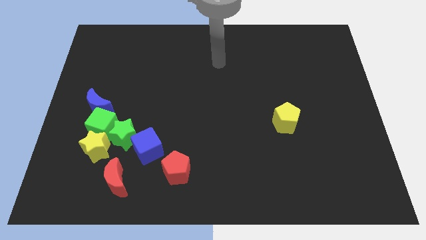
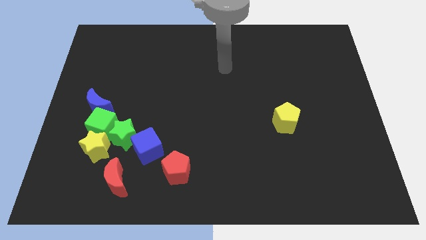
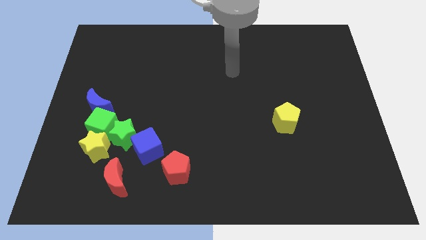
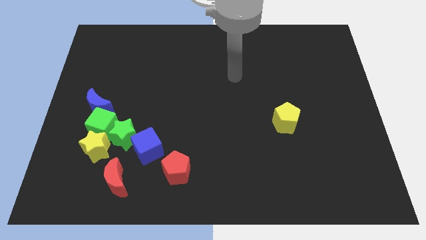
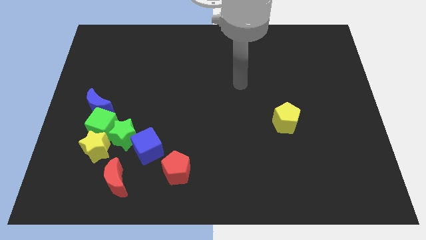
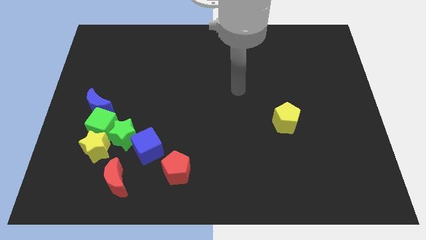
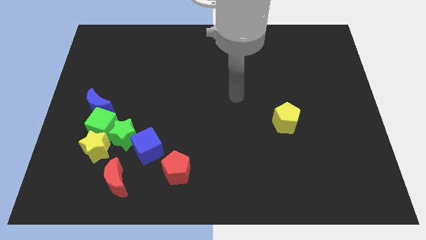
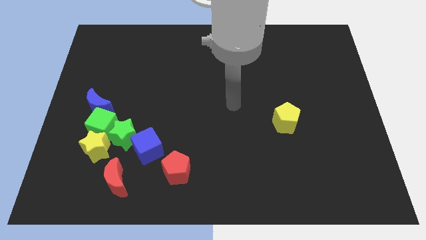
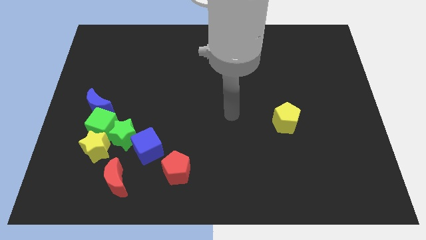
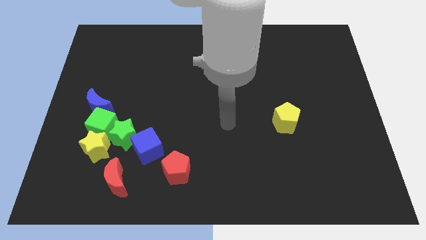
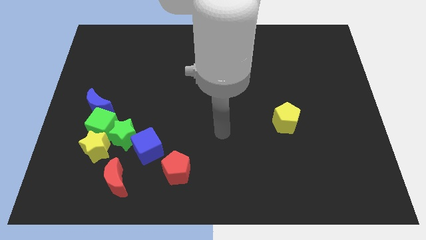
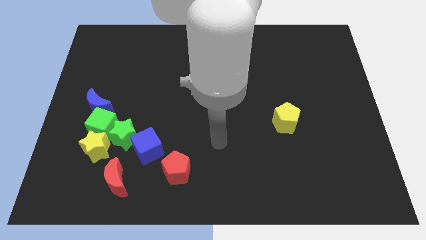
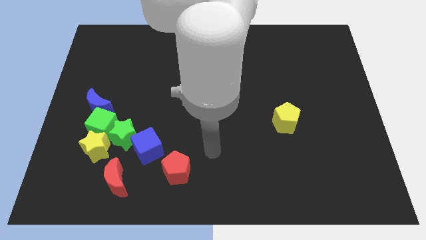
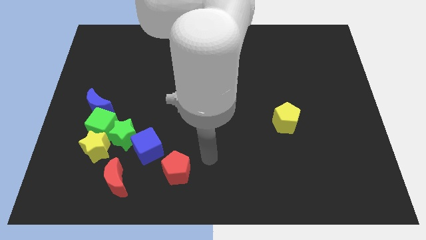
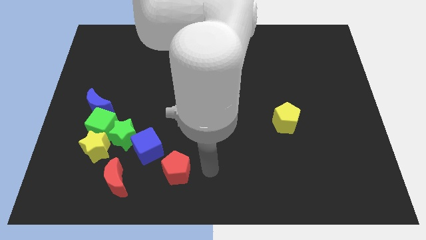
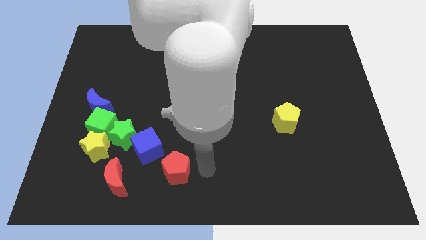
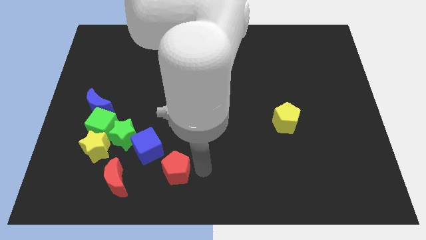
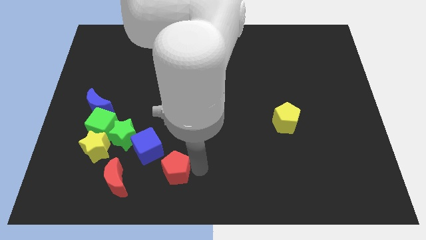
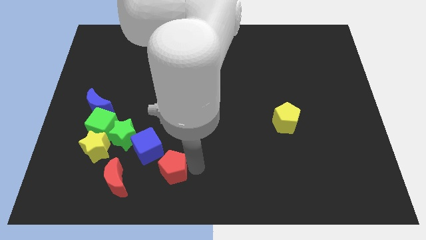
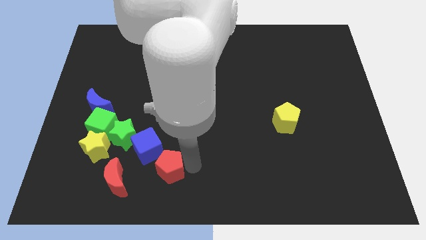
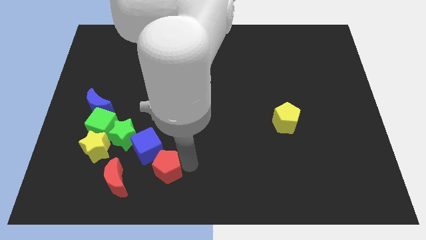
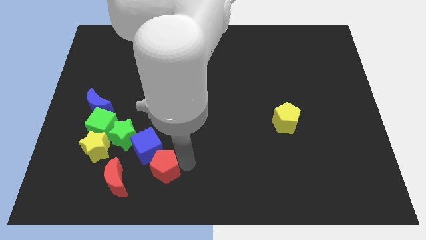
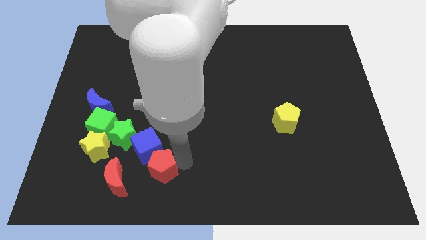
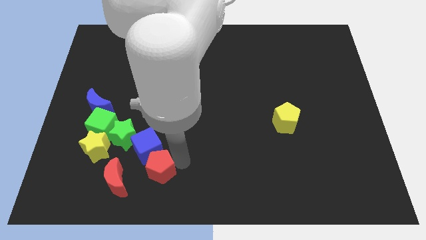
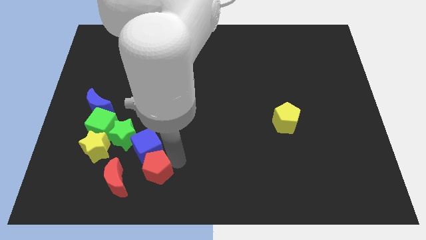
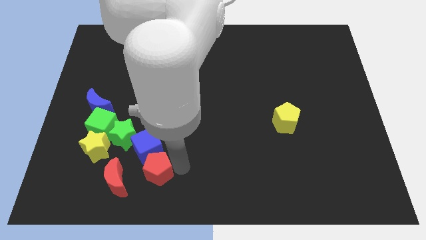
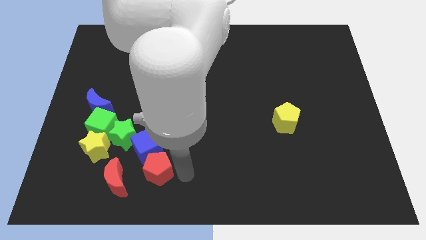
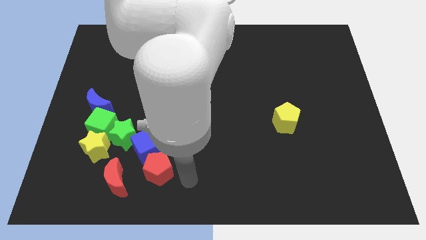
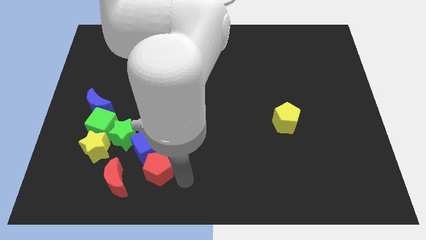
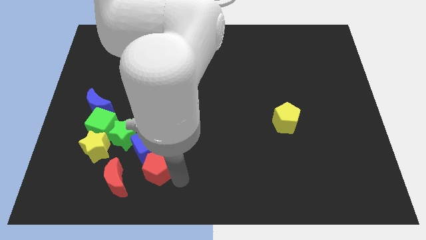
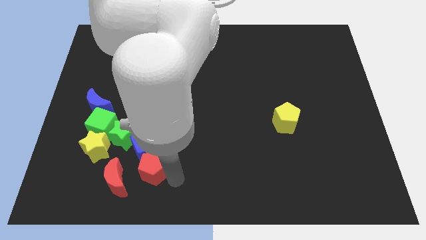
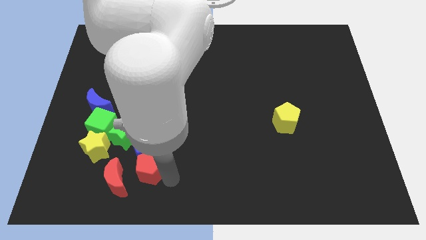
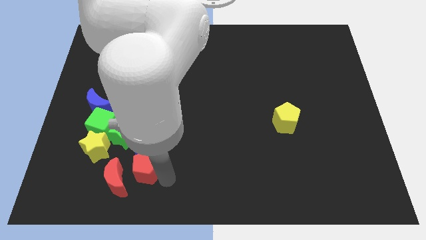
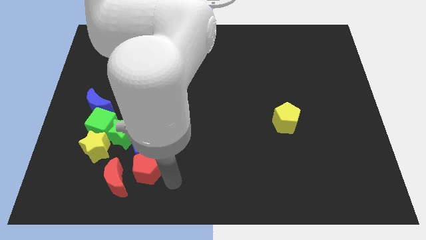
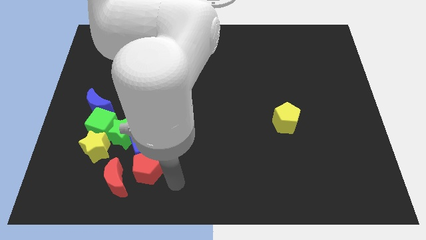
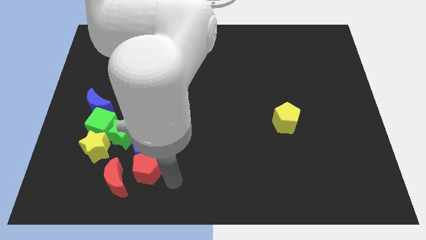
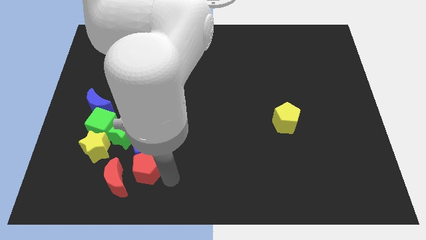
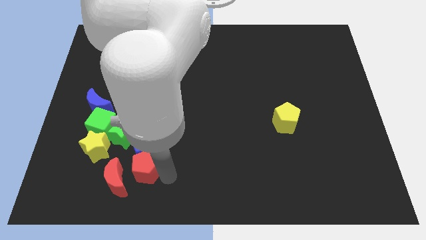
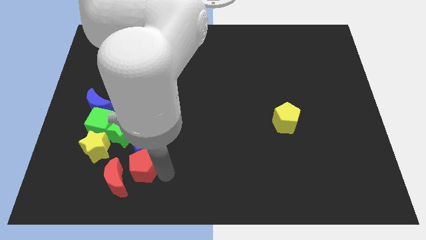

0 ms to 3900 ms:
slide the red pentagon left slightly

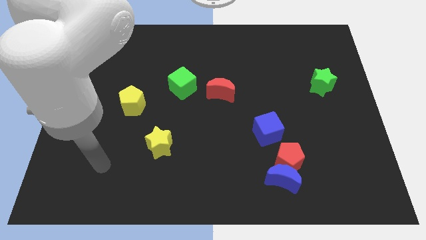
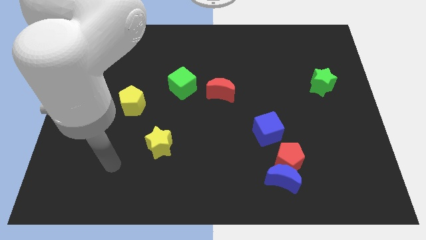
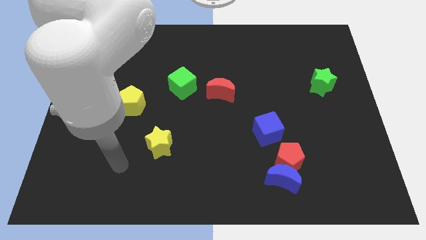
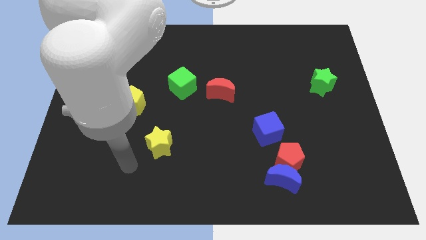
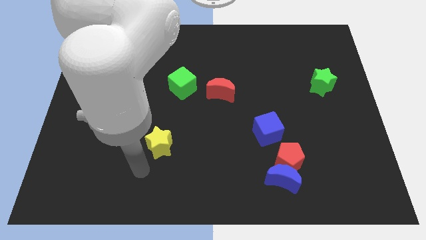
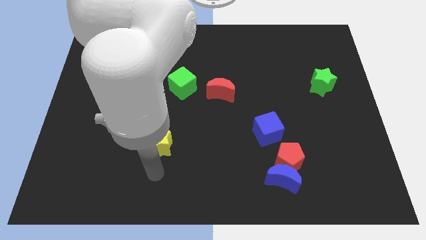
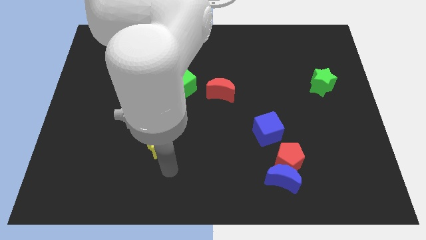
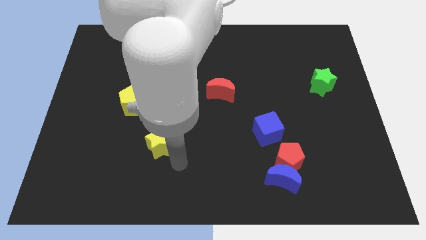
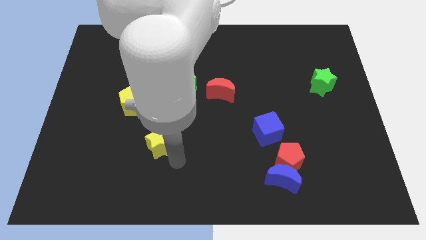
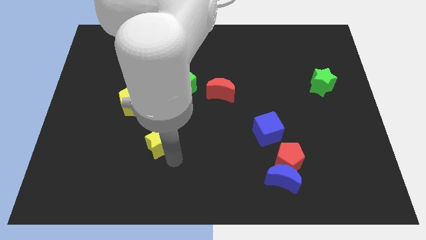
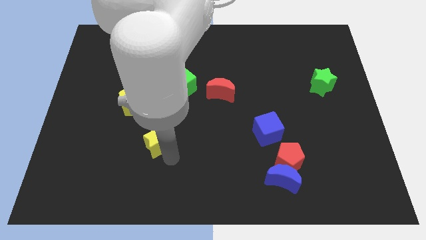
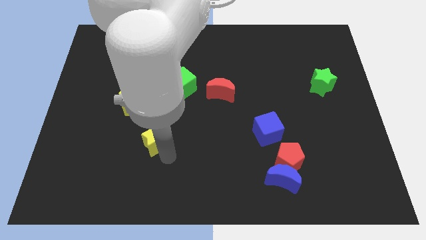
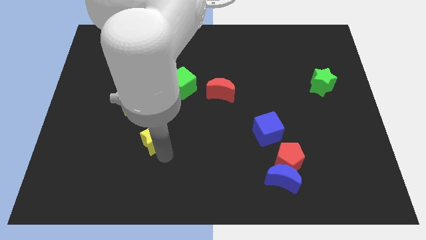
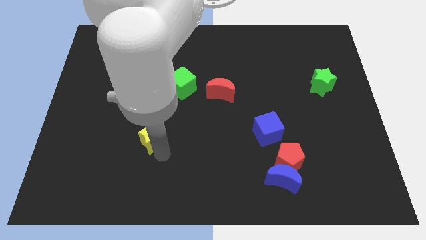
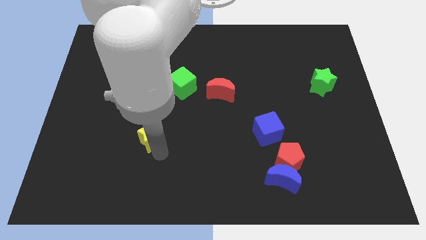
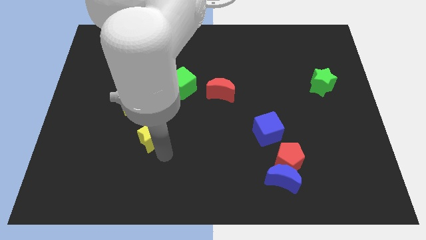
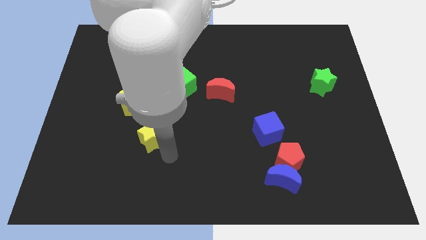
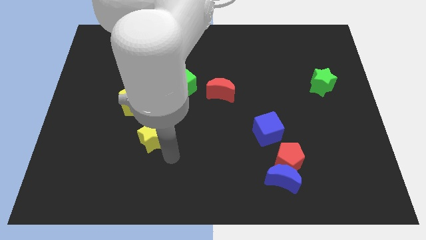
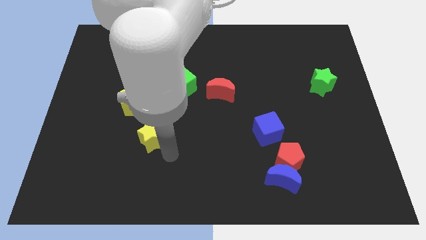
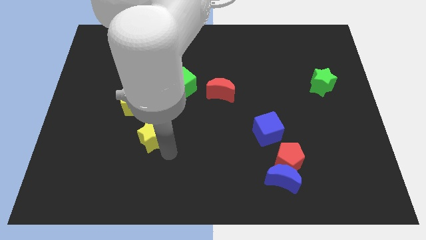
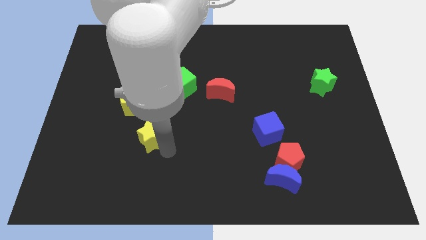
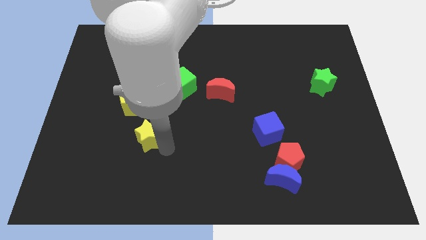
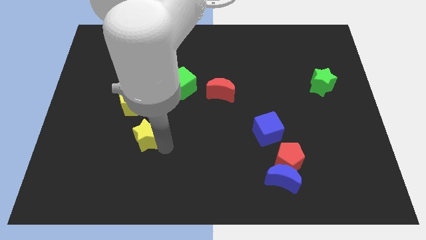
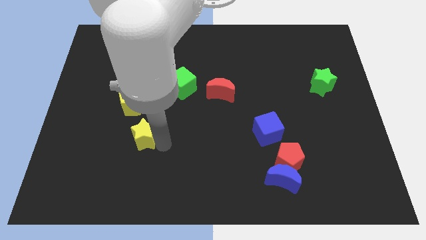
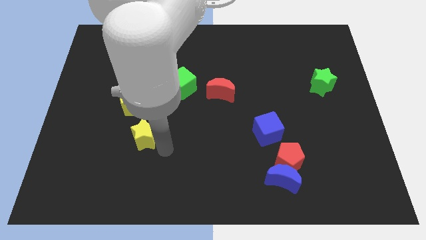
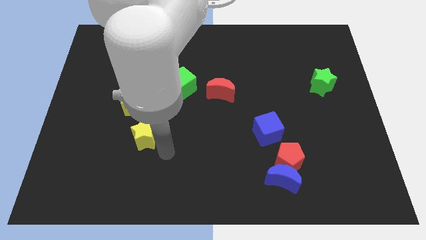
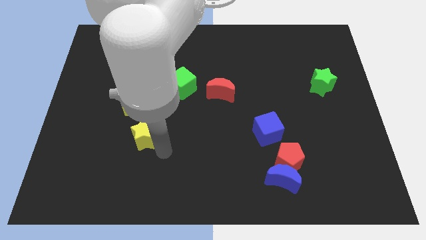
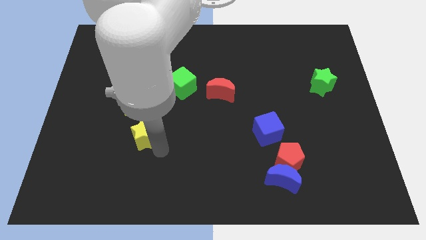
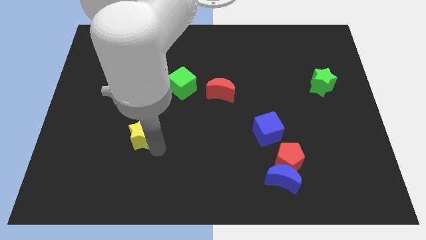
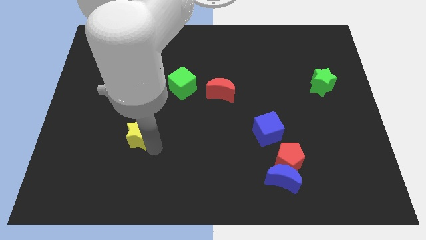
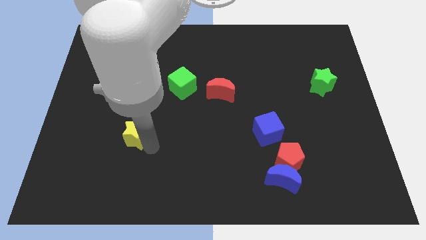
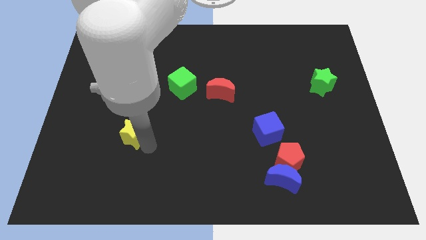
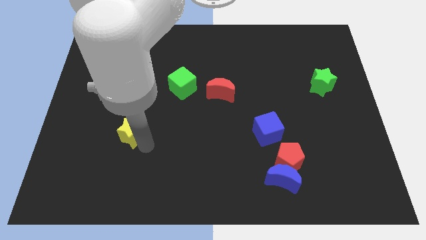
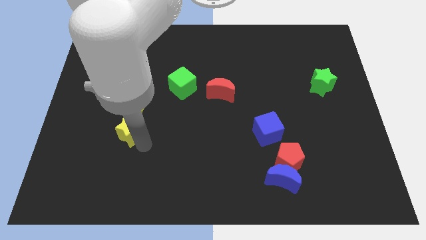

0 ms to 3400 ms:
push the yellow star a little bit up and left

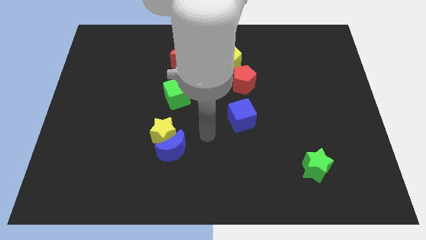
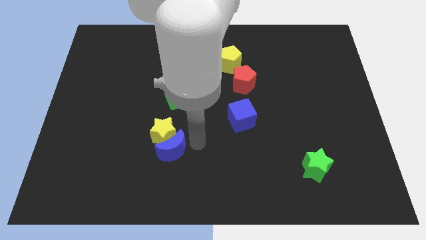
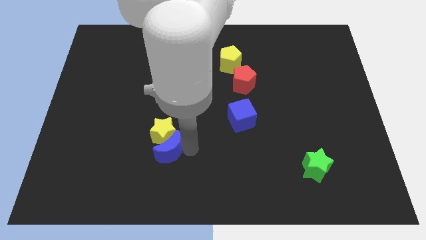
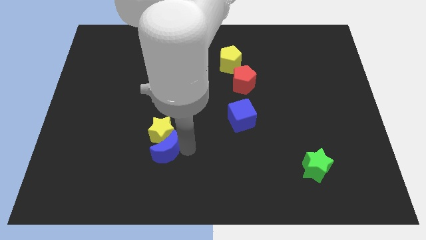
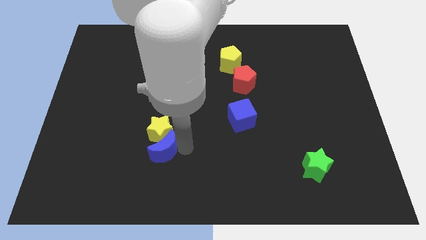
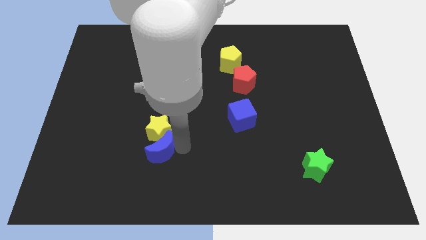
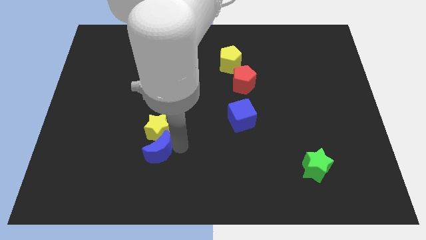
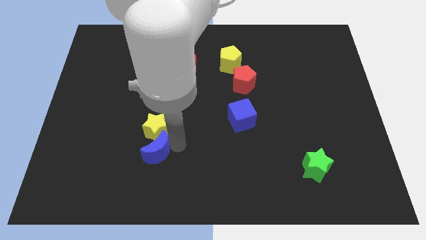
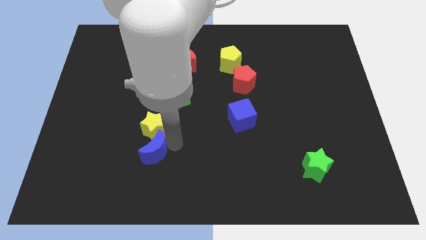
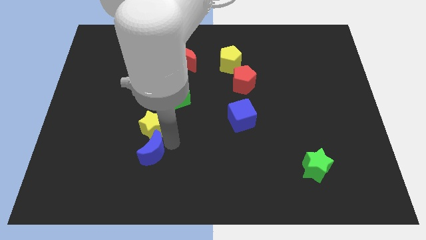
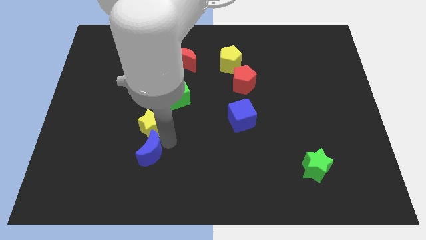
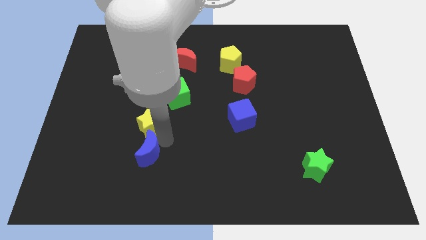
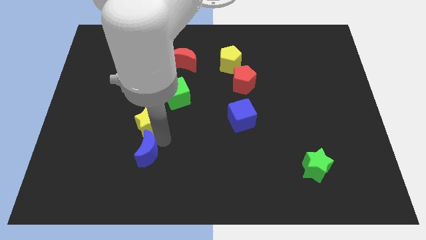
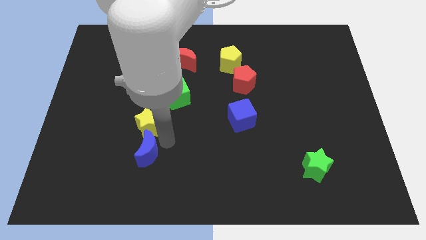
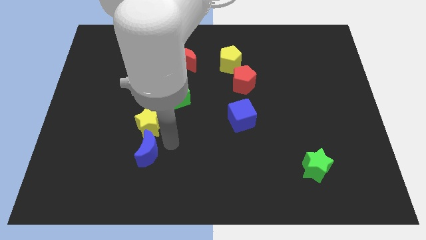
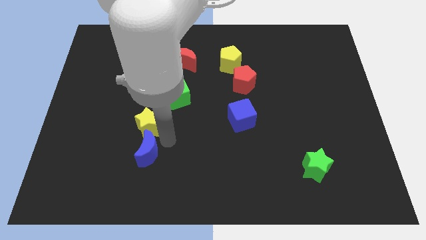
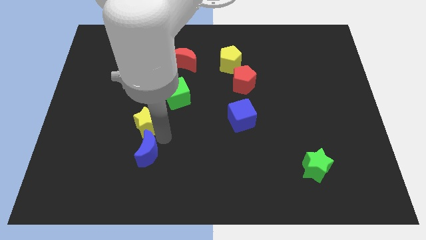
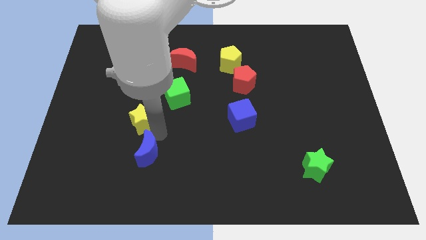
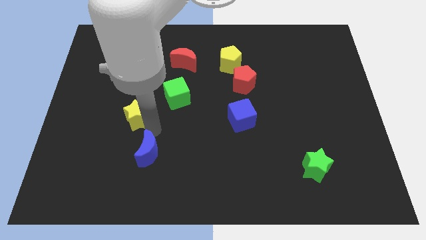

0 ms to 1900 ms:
move the yellow star diagonally upwards and left a little
